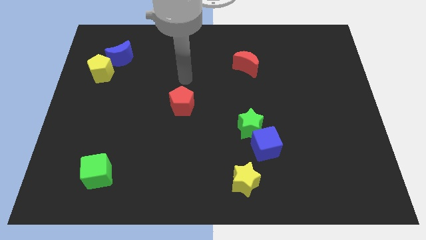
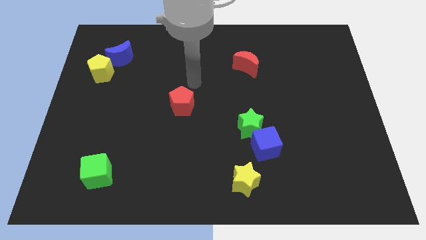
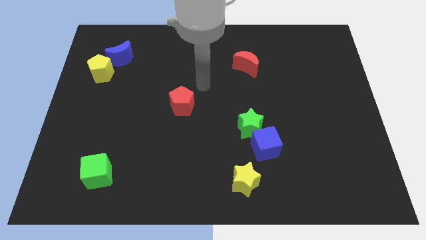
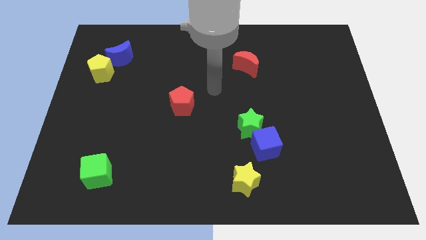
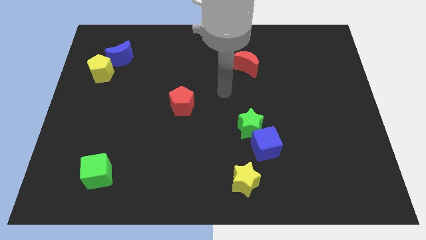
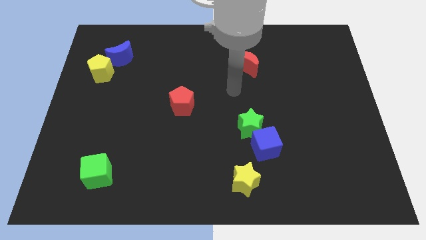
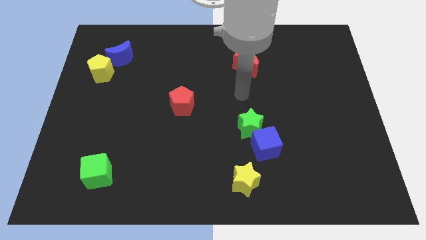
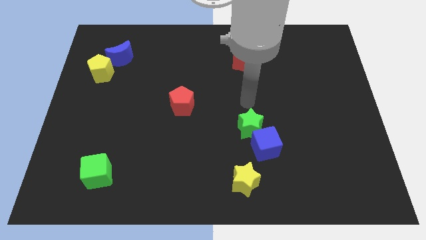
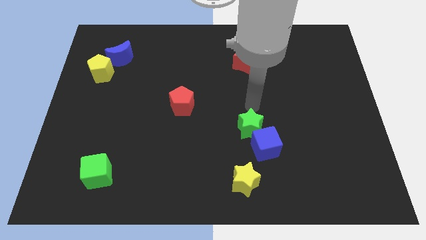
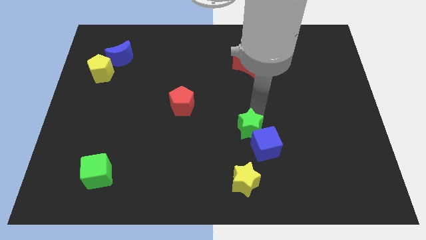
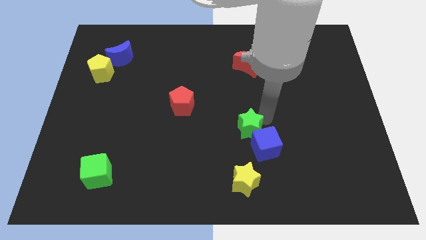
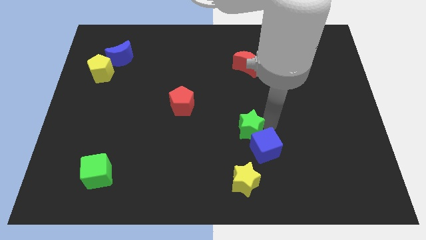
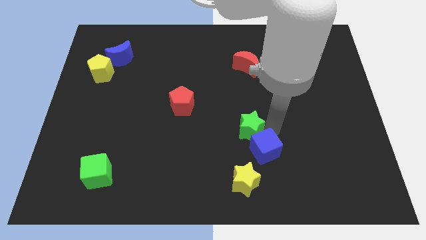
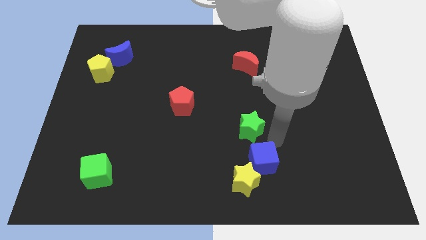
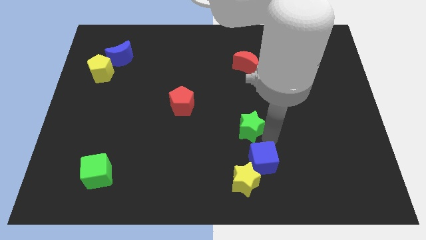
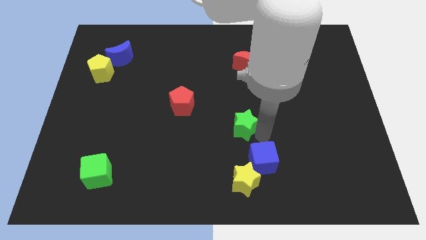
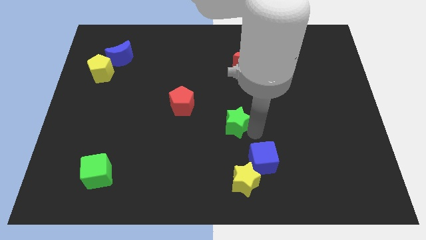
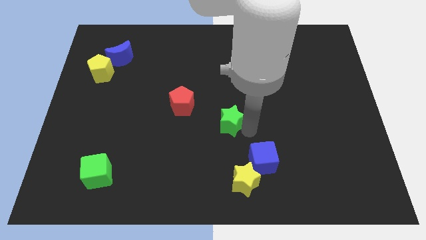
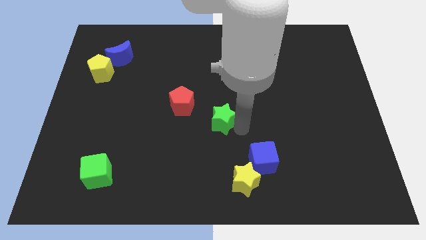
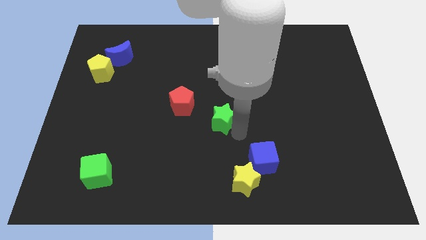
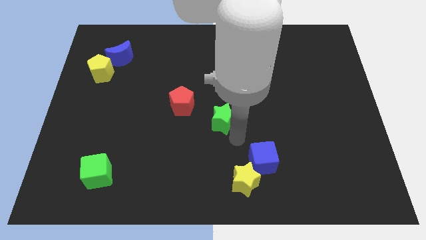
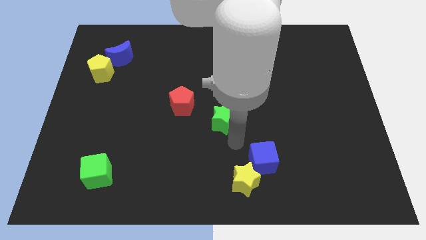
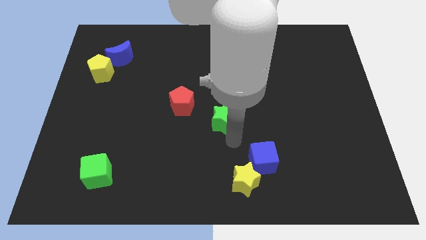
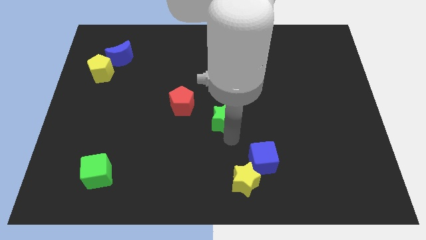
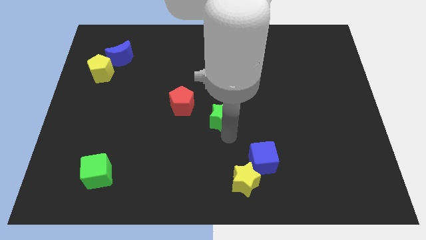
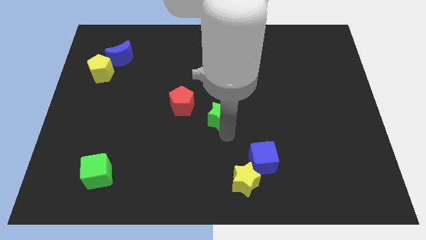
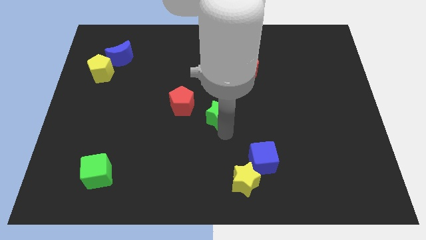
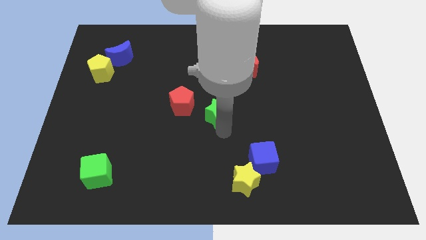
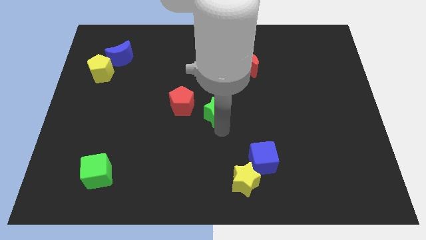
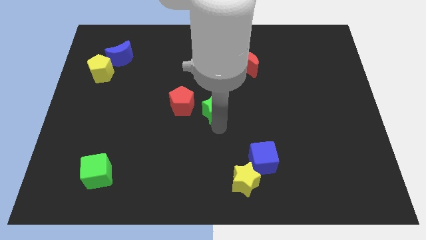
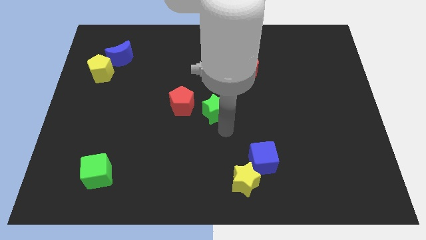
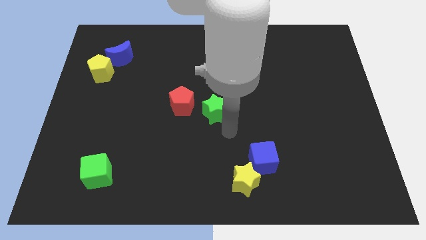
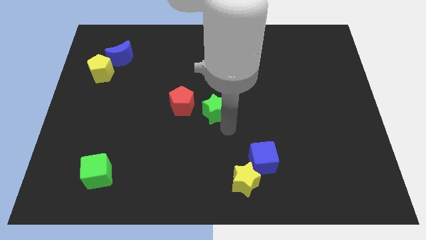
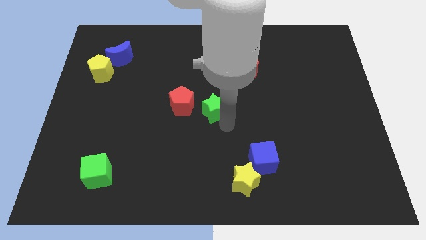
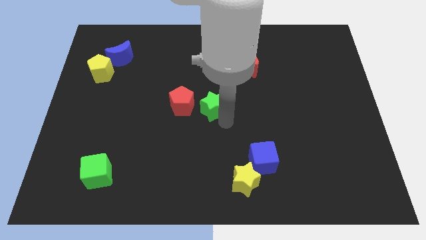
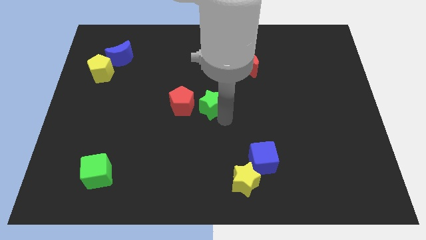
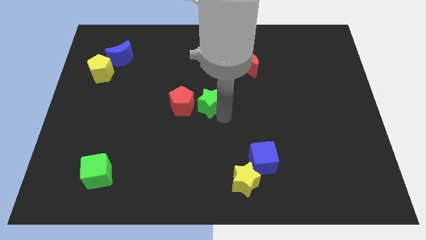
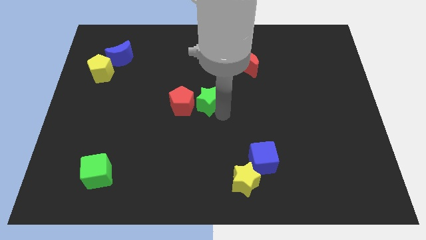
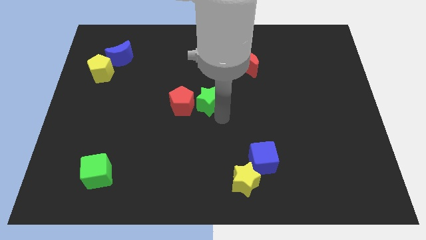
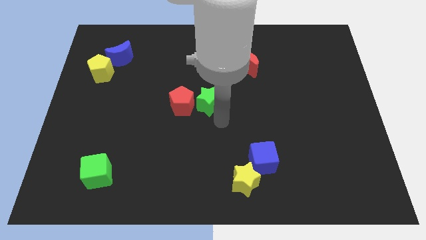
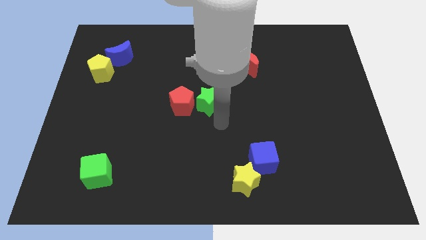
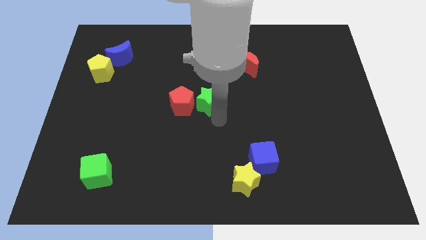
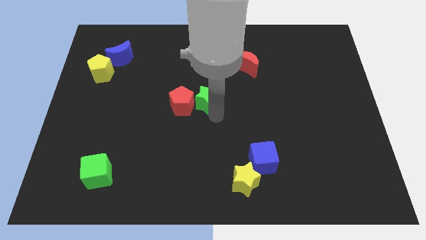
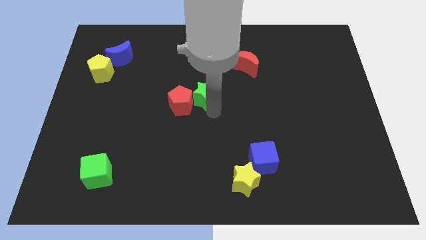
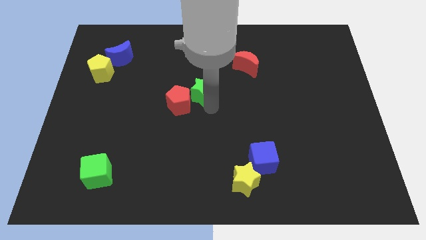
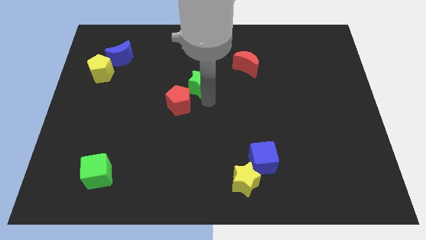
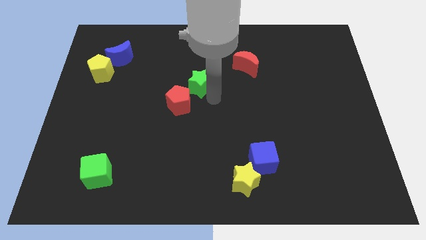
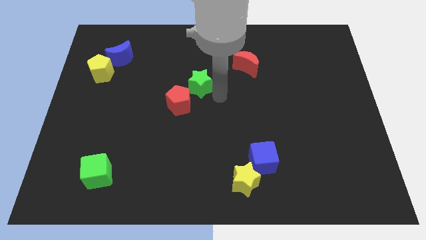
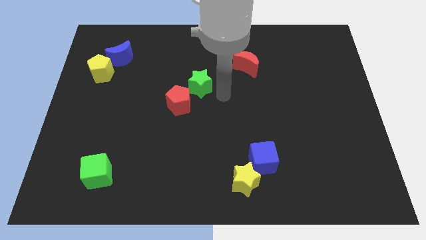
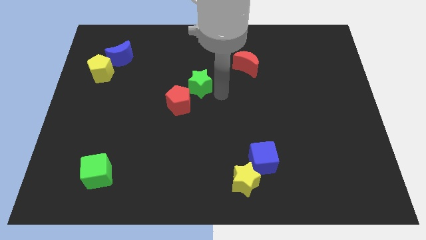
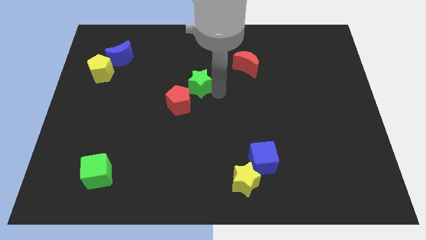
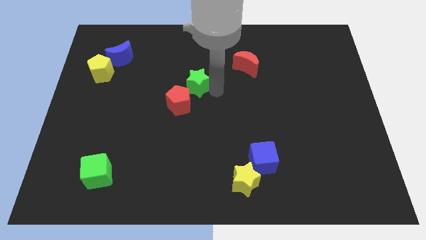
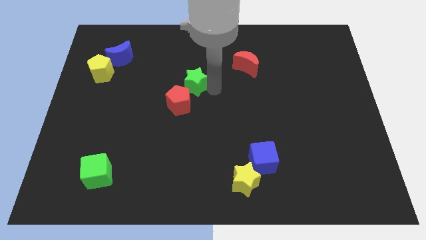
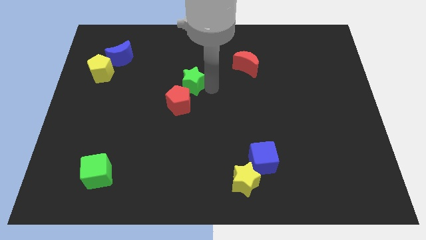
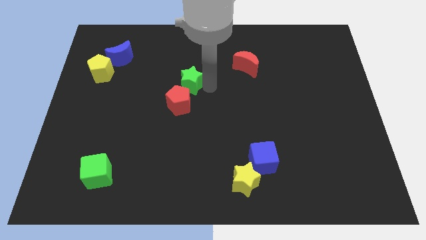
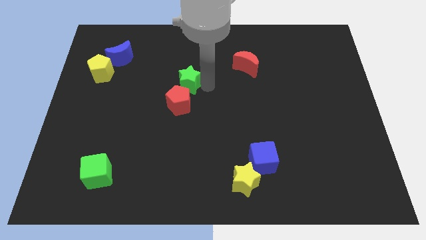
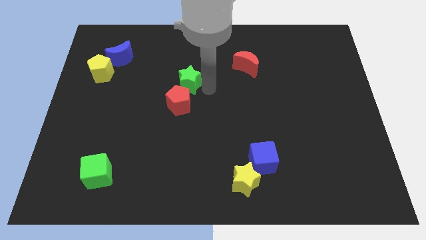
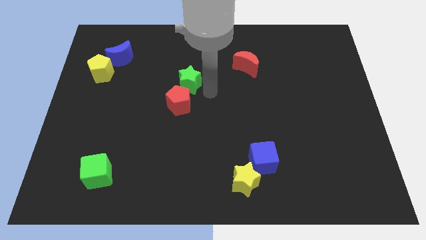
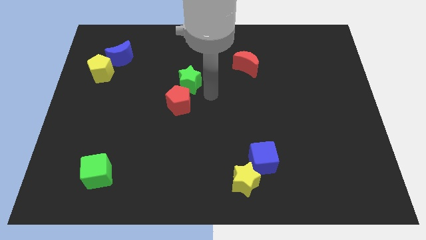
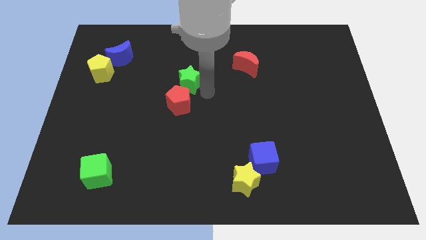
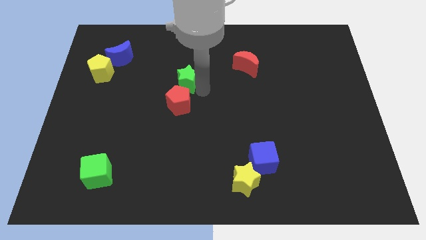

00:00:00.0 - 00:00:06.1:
slide the green star diagonally upwards and to the left

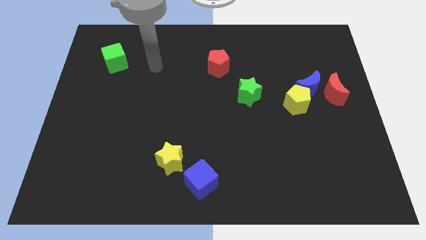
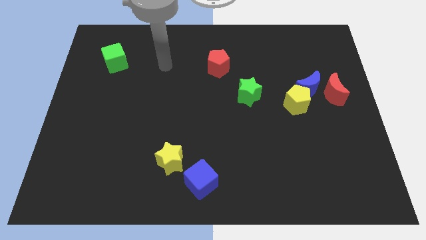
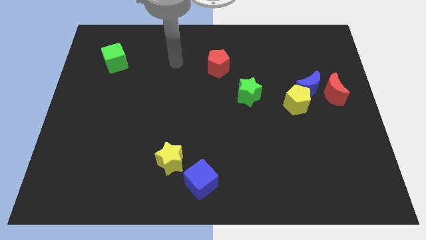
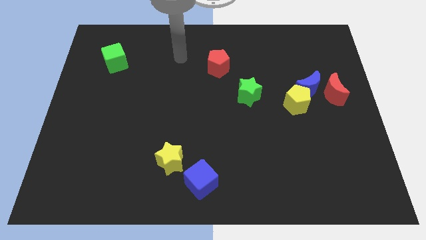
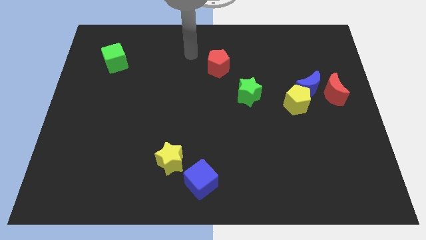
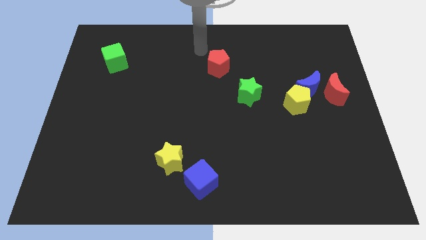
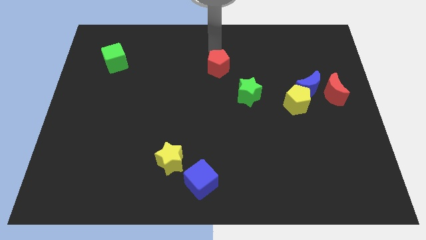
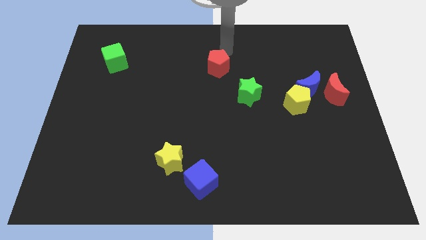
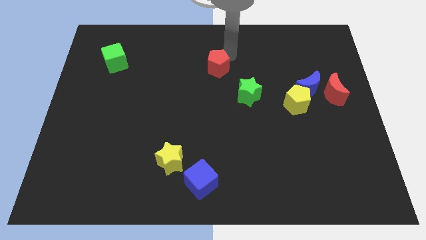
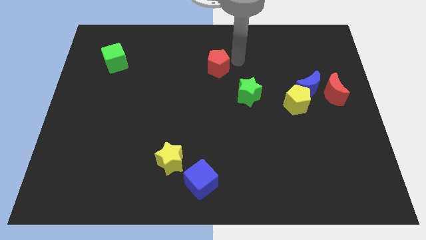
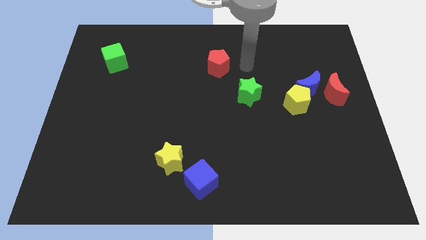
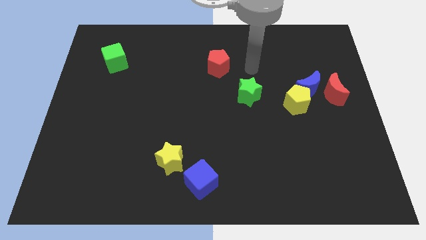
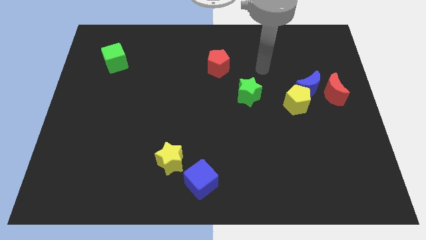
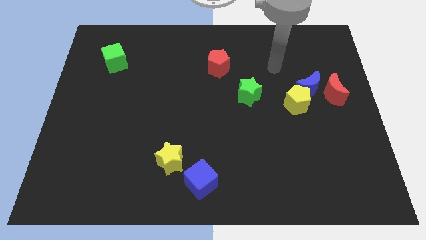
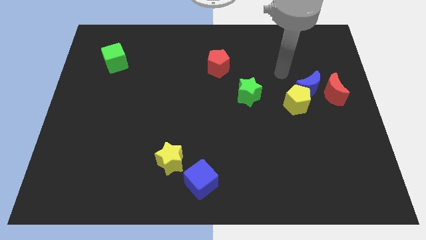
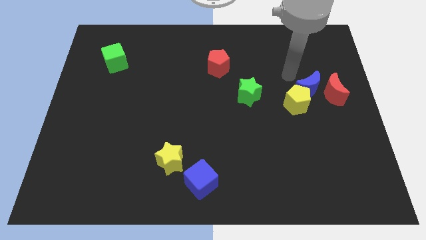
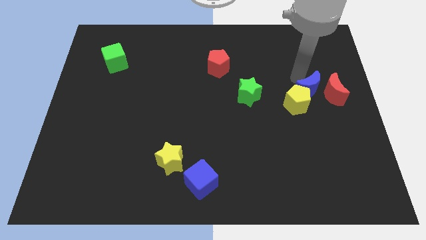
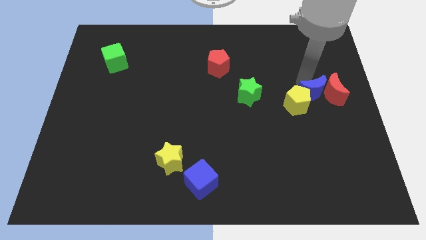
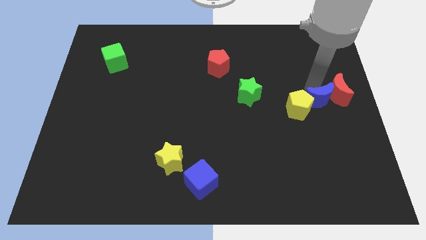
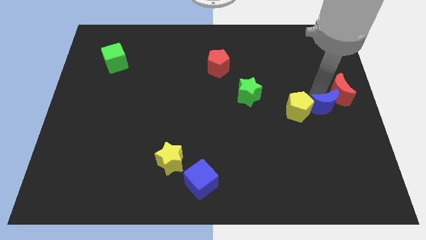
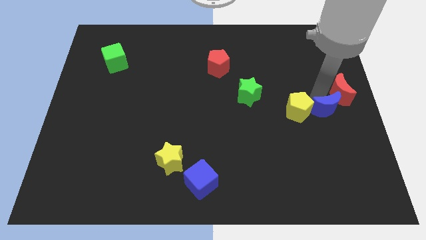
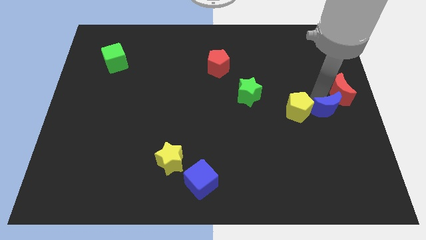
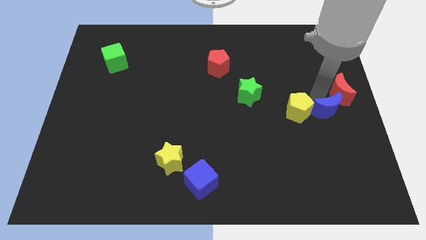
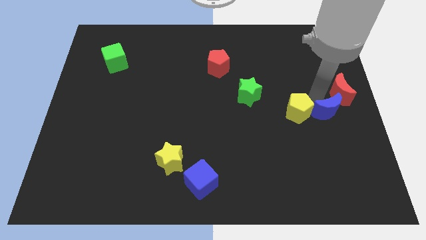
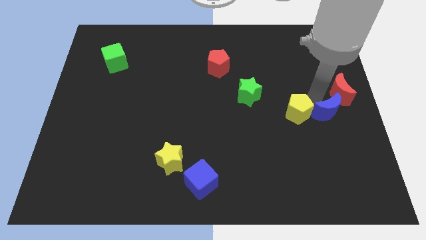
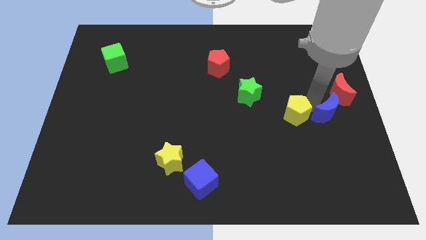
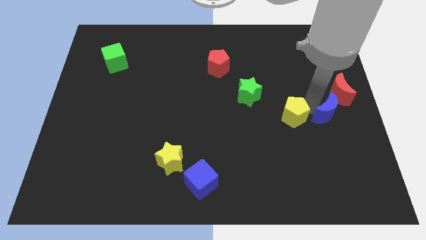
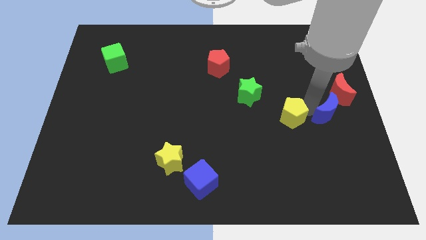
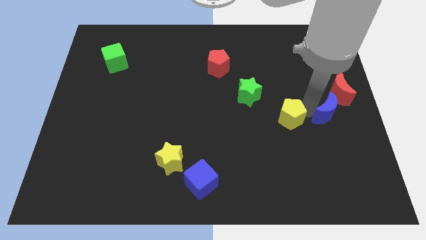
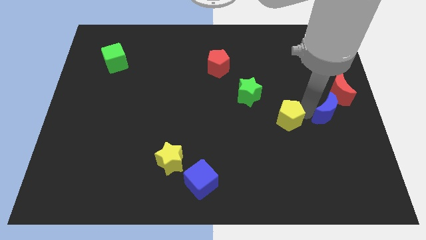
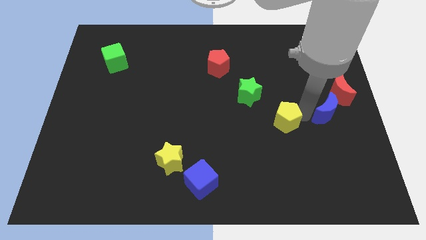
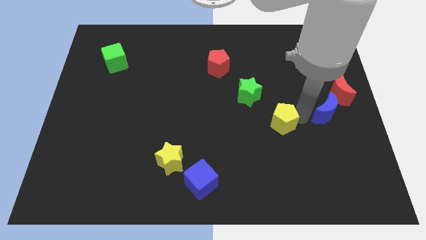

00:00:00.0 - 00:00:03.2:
slightly slide the yellow pentagon downwards and then left
